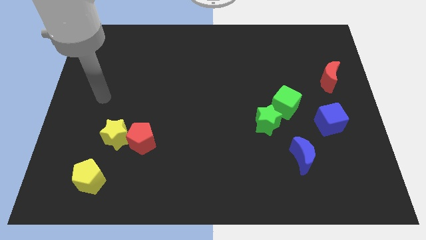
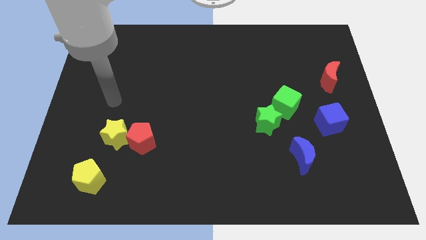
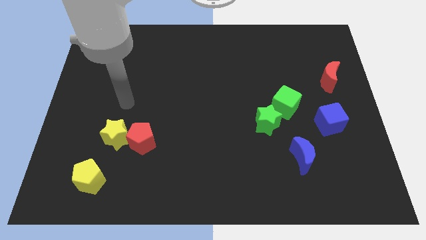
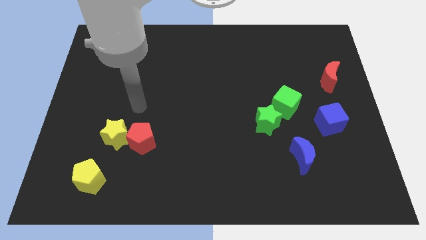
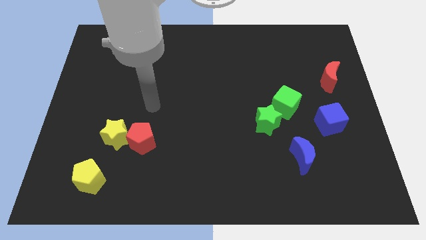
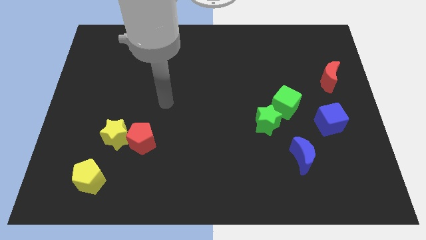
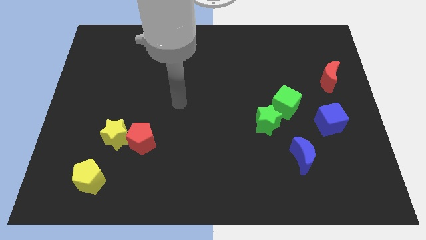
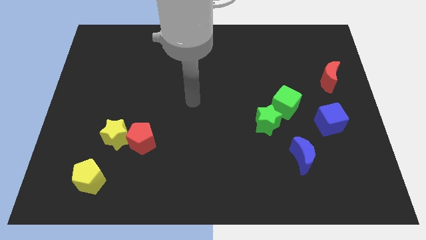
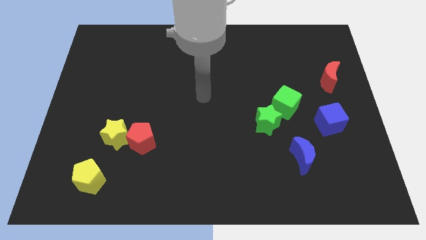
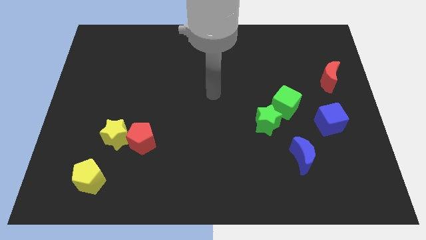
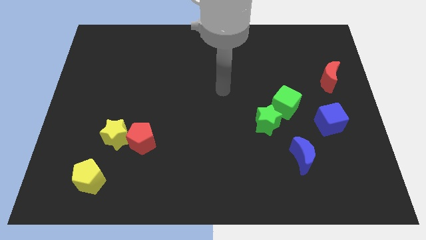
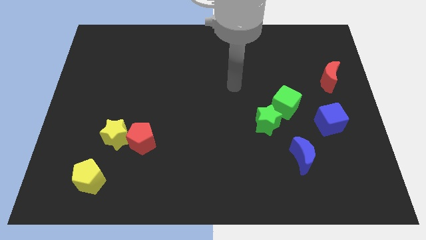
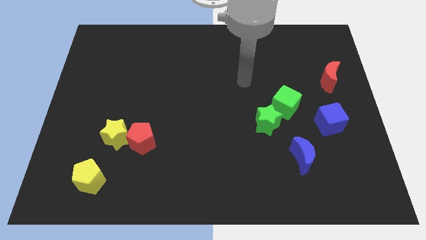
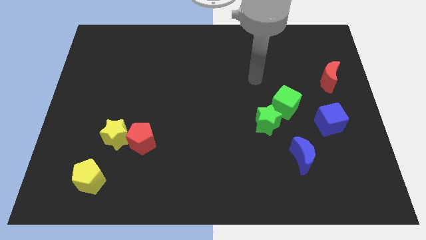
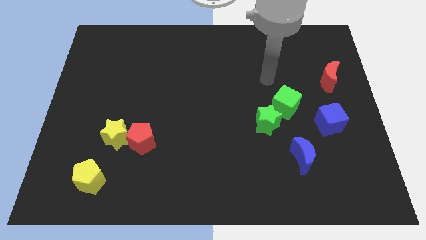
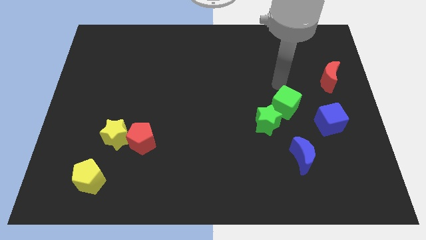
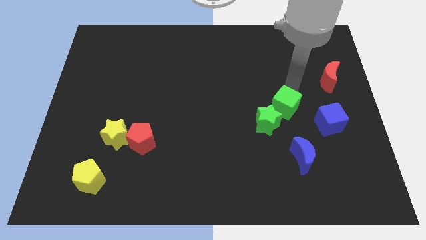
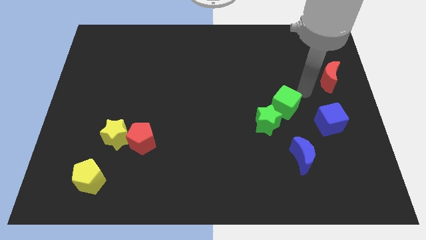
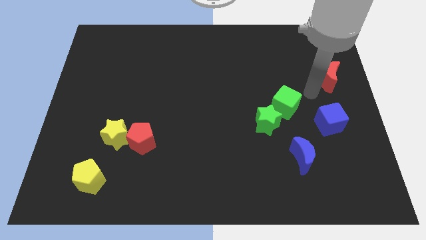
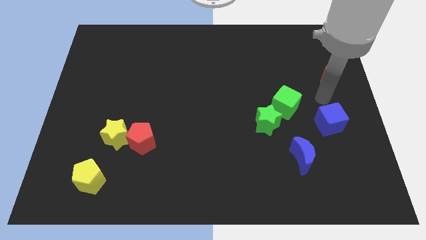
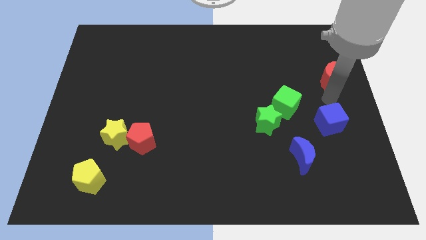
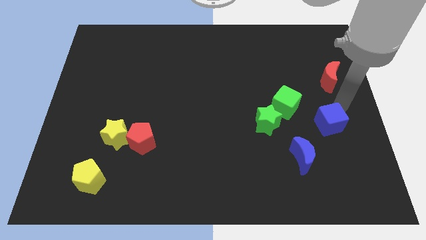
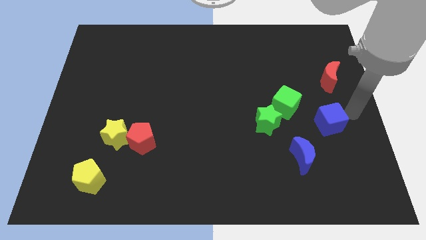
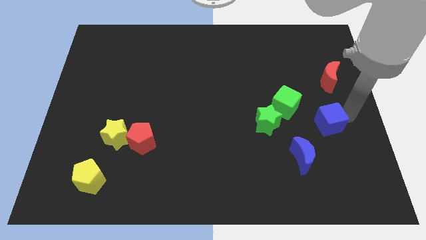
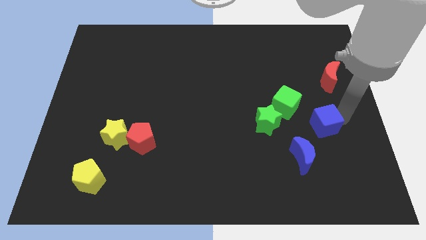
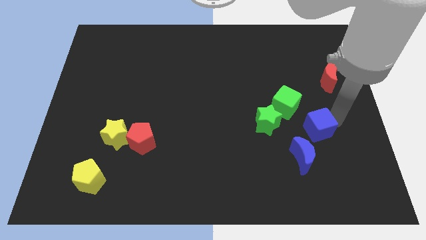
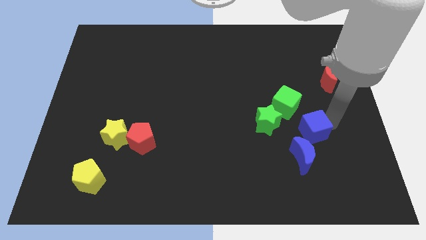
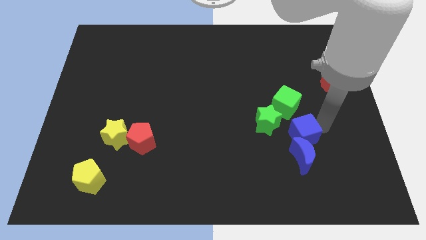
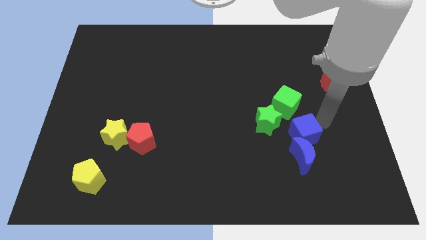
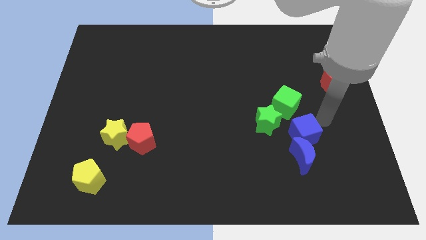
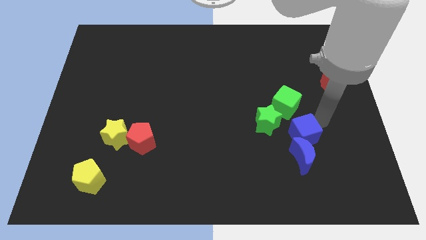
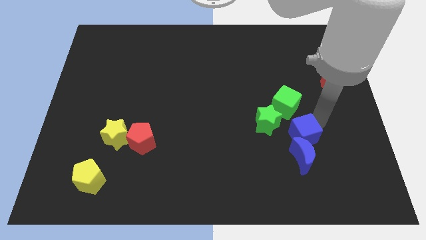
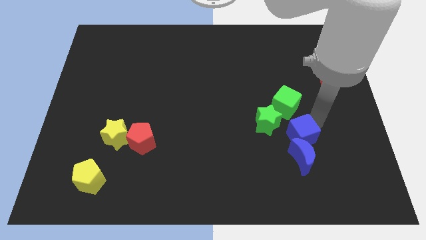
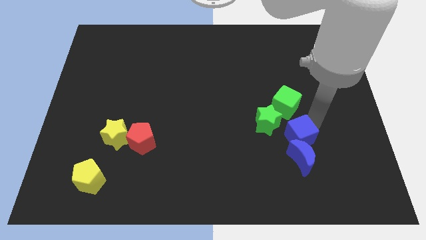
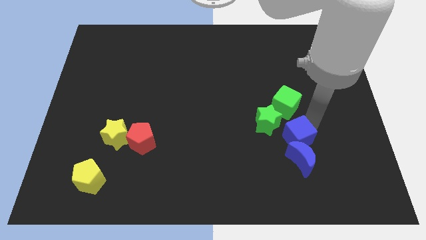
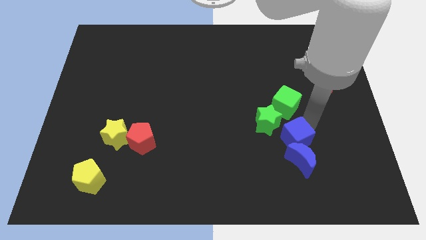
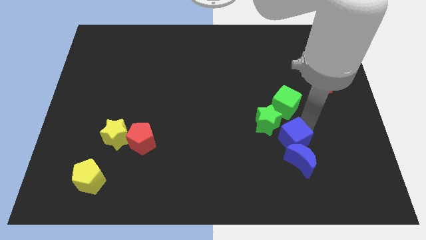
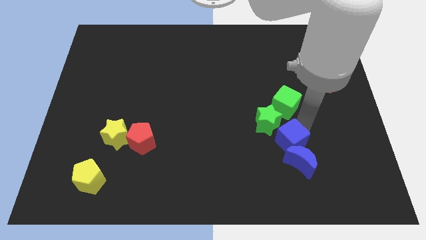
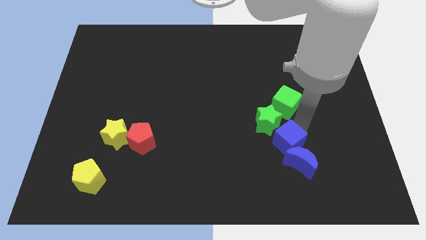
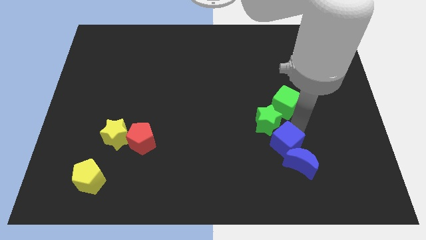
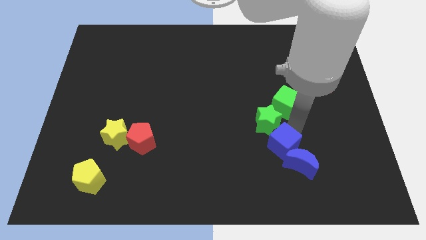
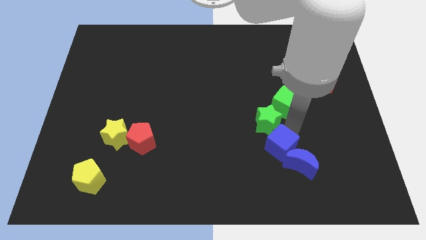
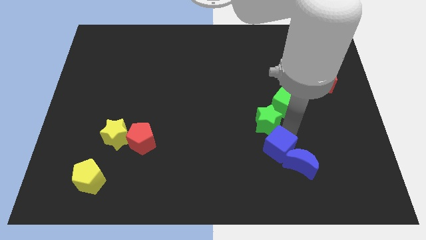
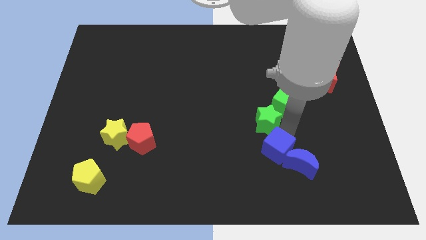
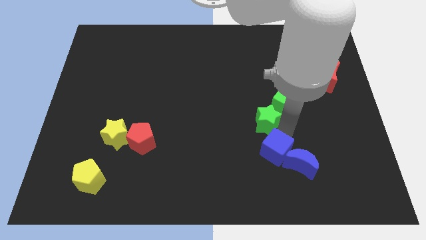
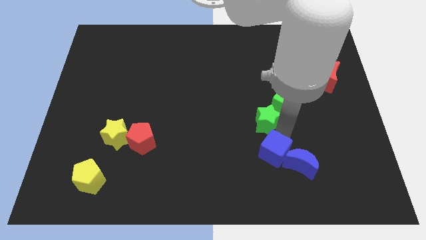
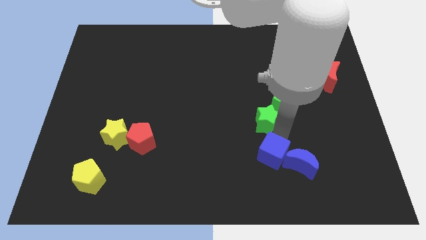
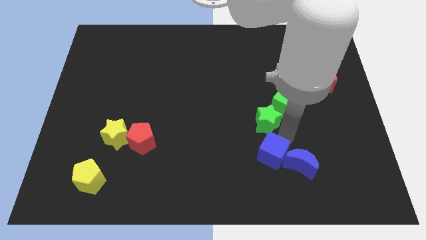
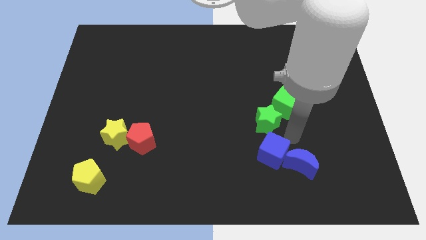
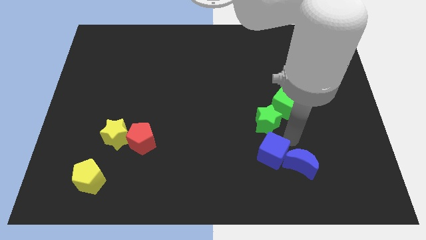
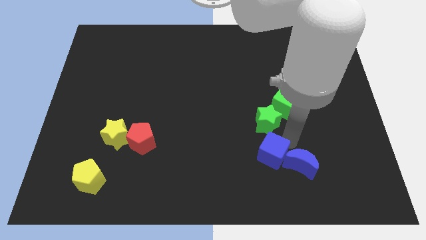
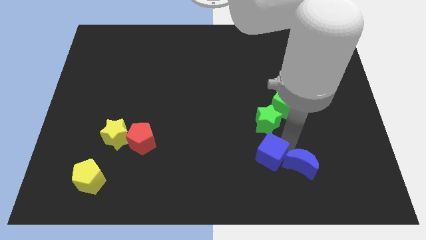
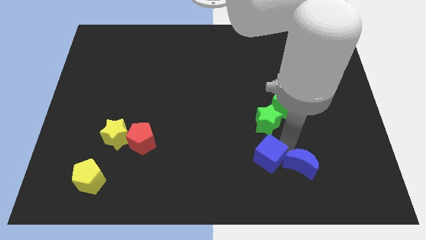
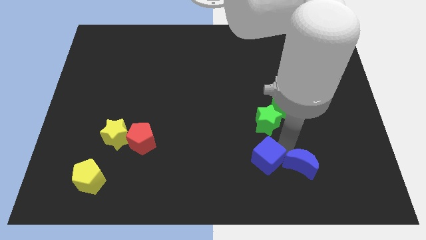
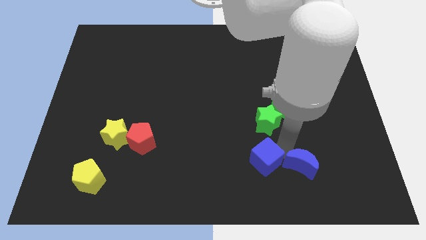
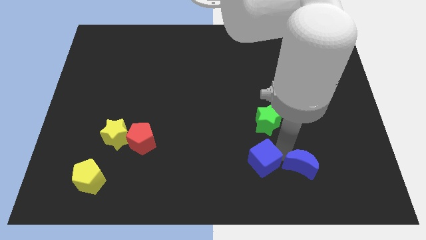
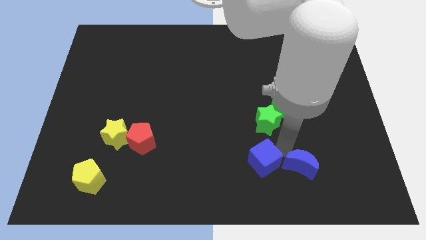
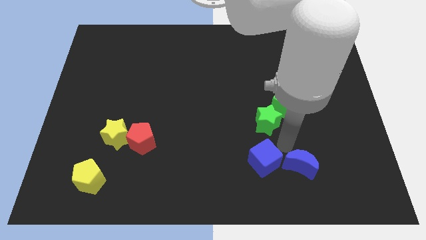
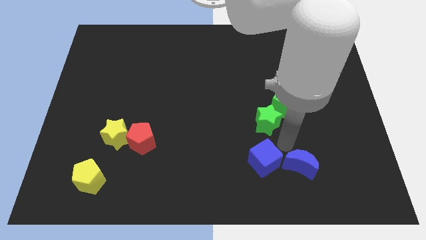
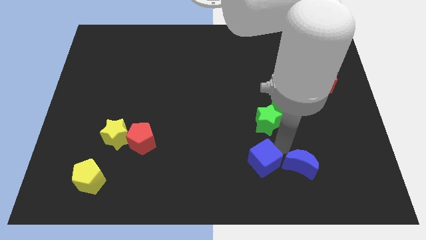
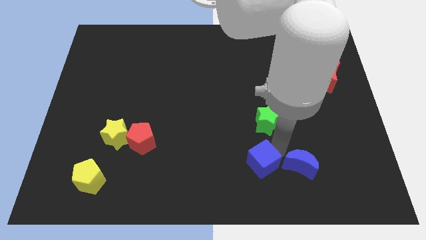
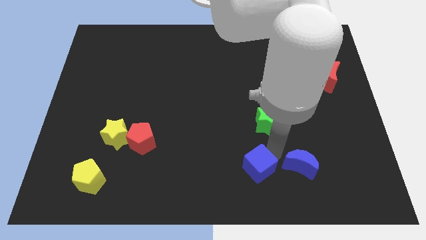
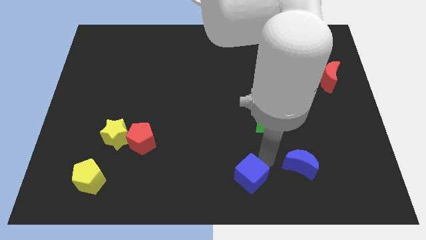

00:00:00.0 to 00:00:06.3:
move the blue cube to the bottom side
